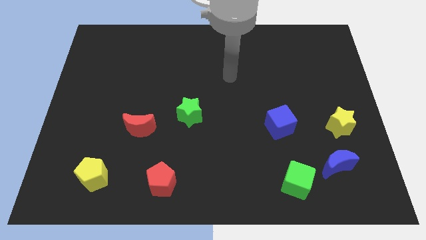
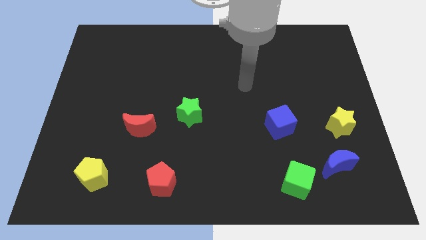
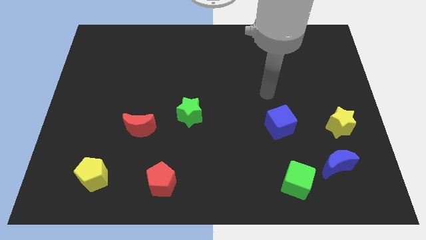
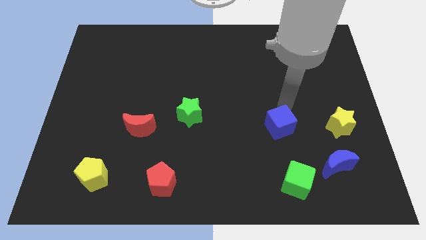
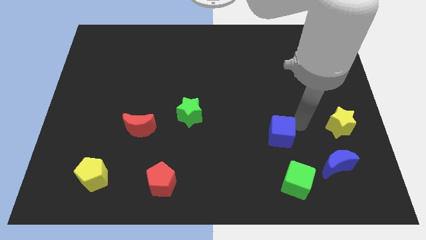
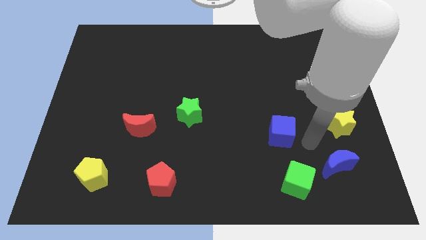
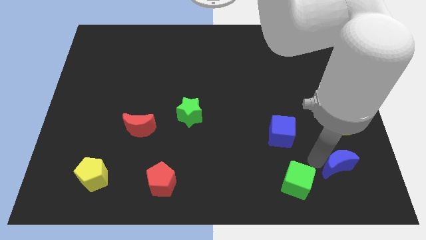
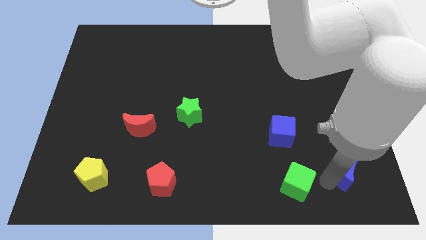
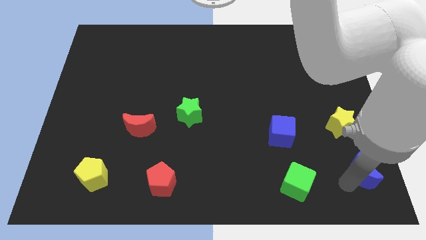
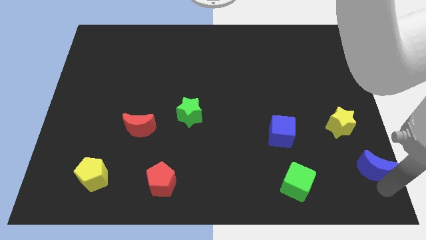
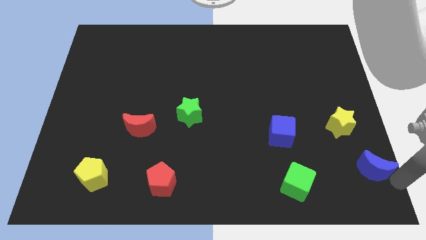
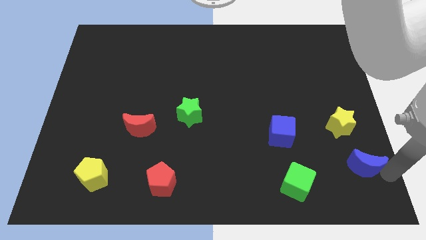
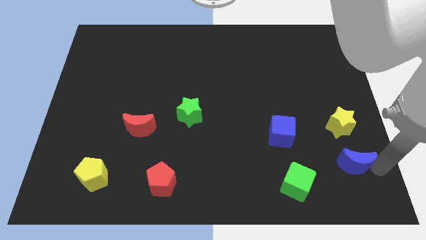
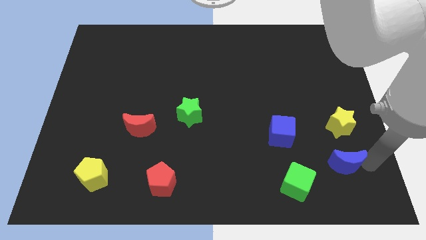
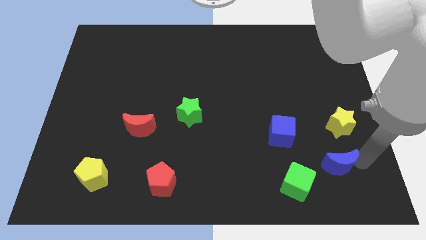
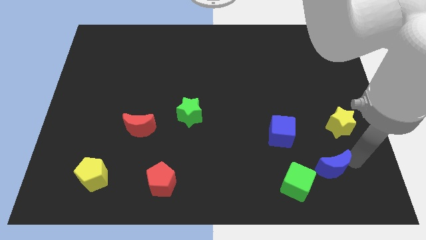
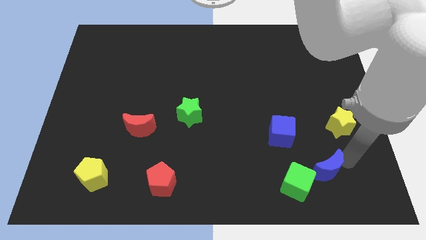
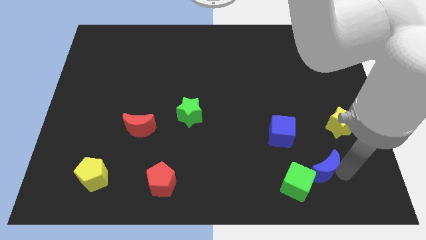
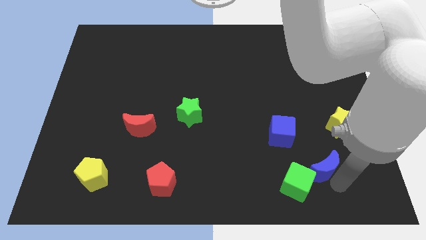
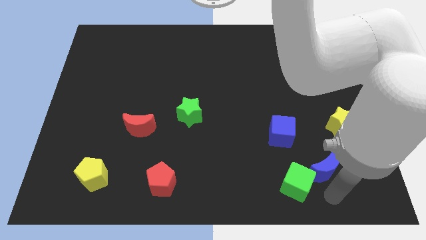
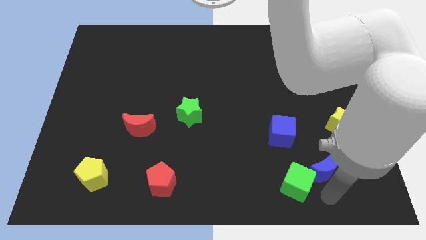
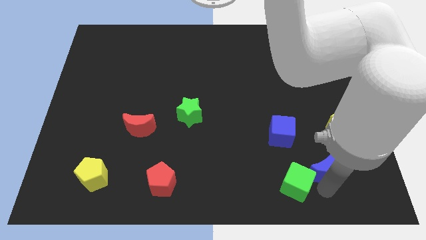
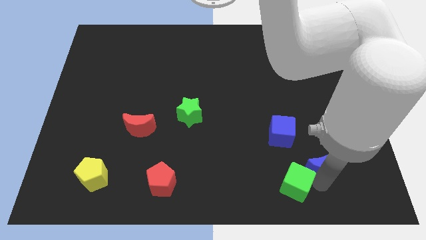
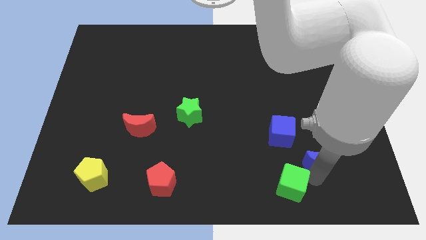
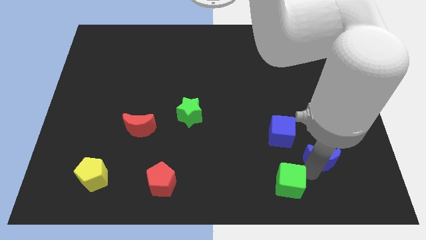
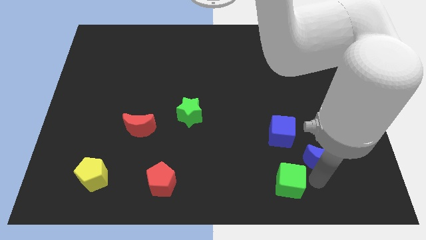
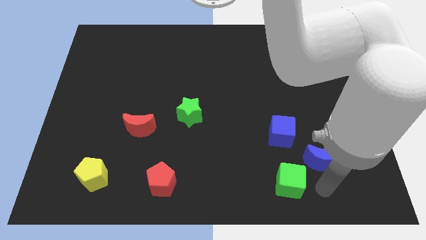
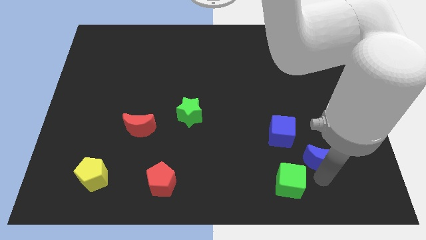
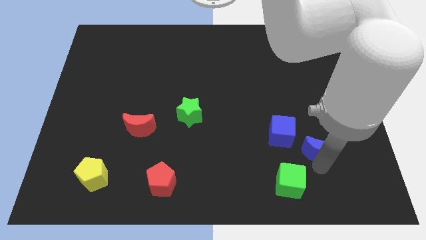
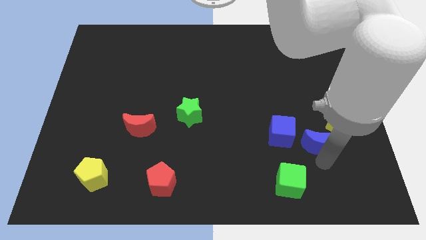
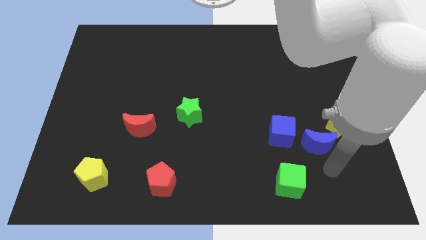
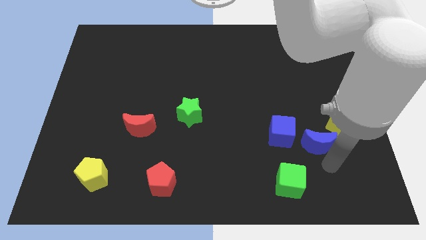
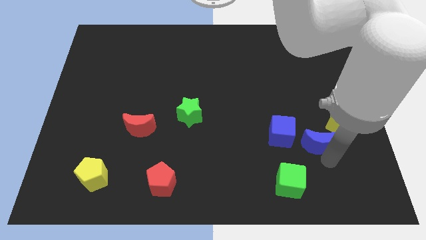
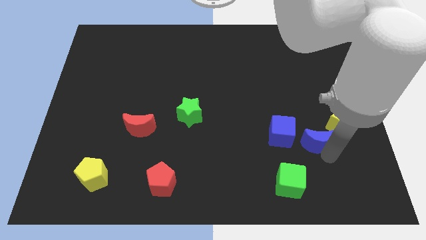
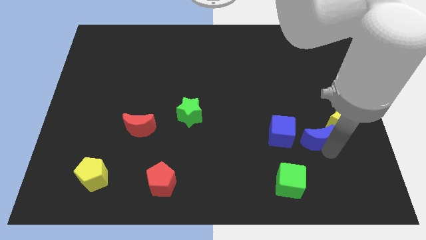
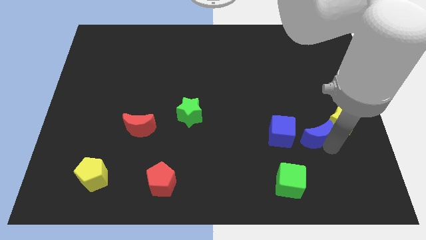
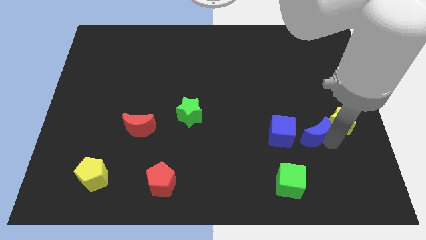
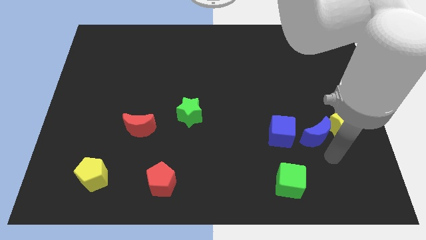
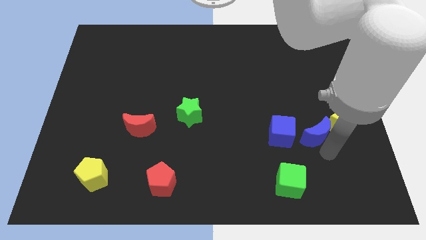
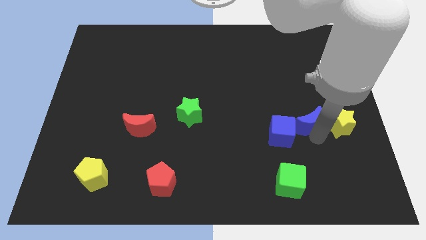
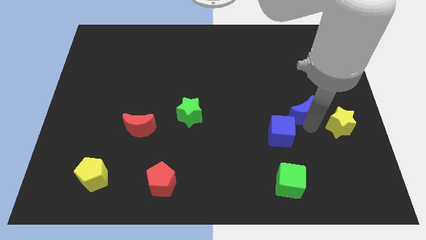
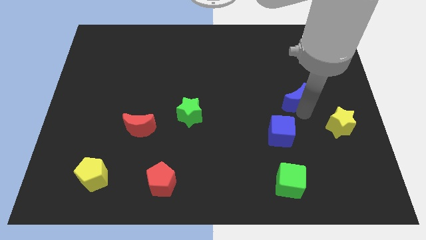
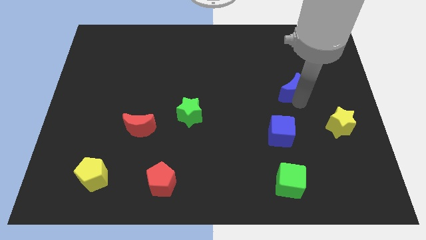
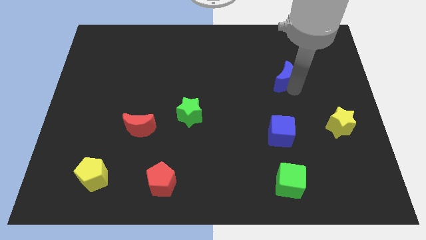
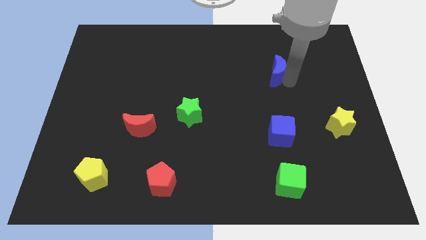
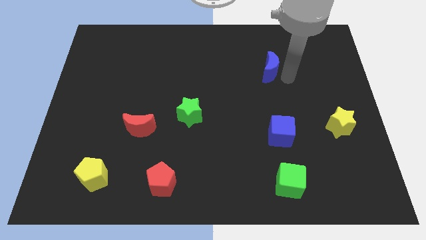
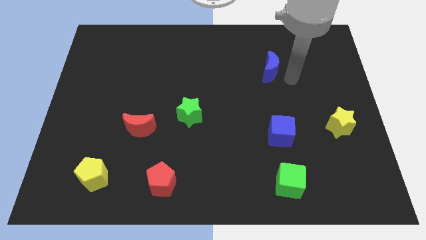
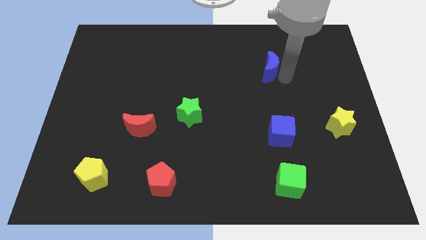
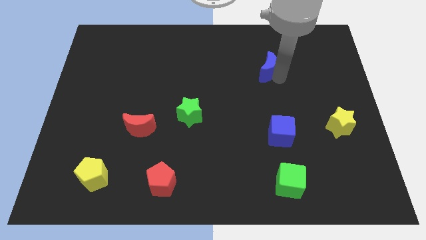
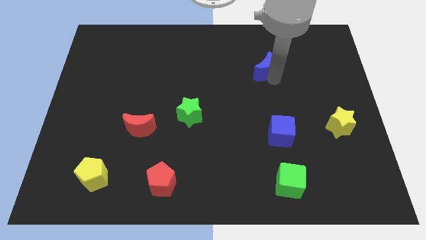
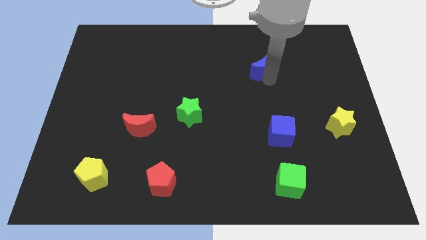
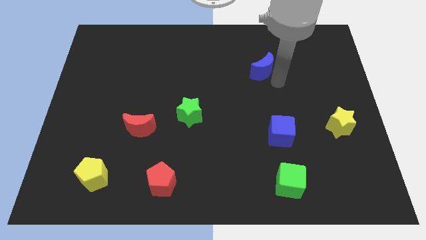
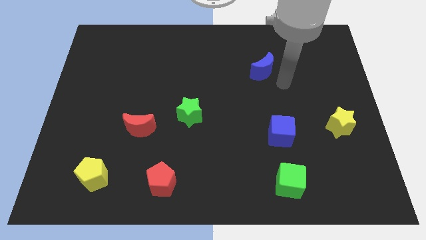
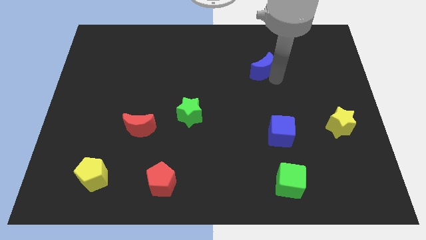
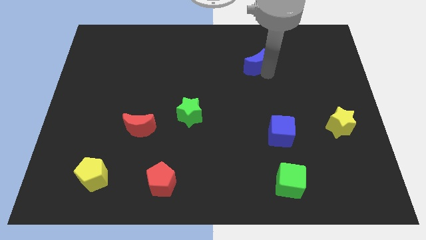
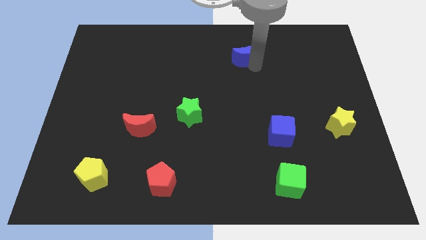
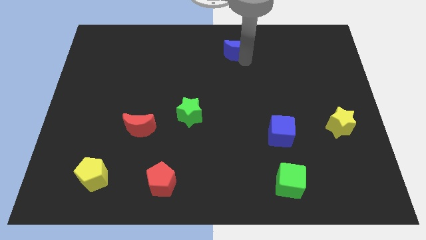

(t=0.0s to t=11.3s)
slide the blue moon to the top side

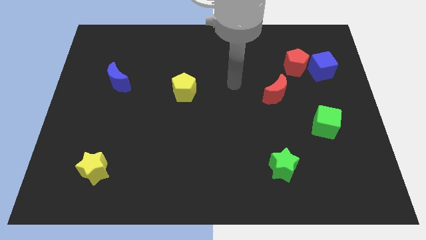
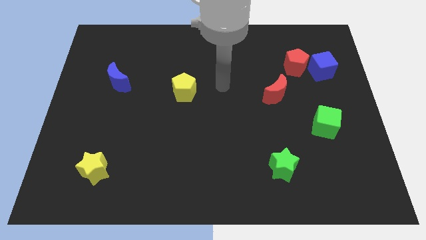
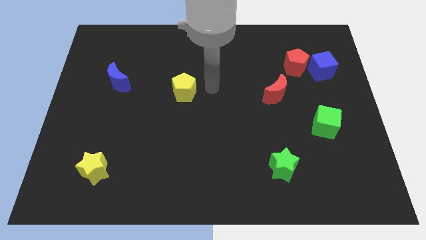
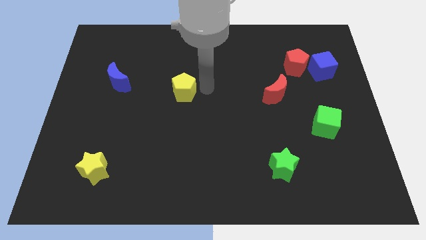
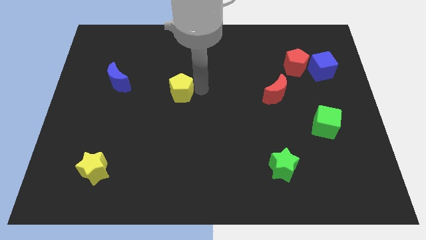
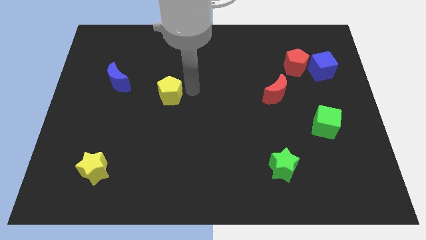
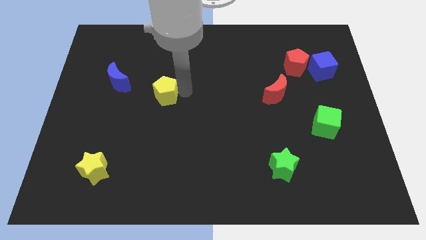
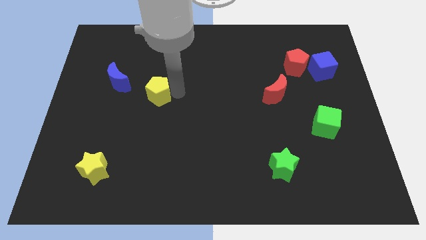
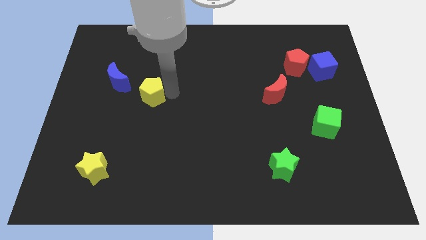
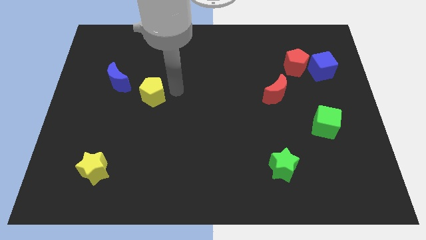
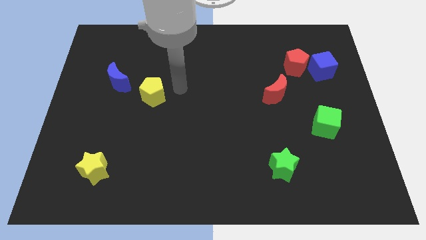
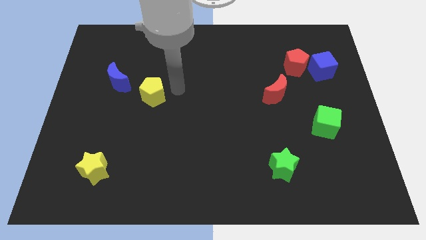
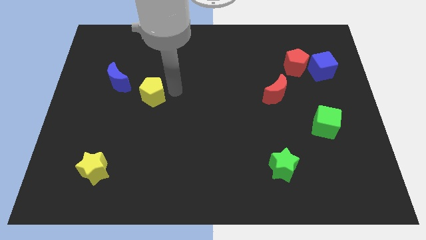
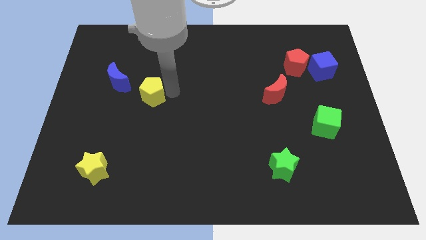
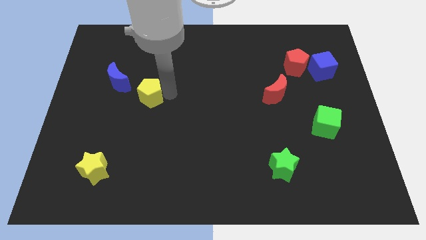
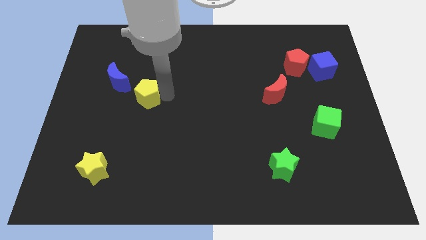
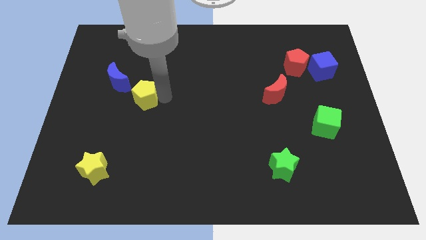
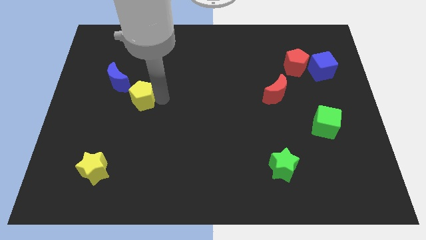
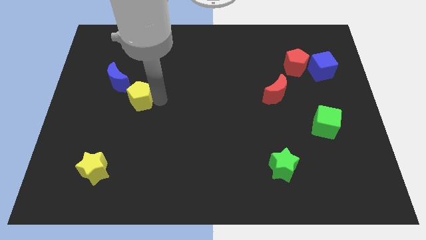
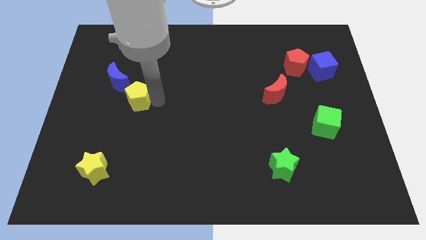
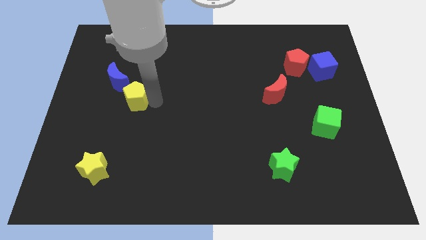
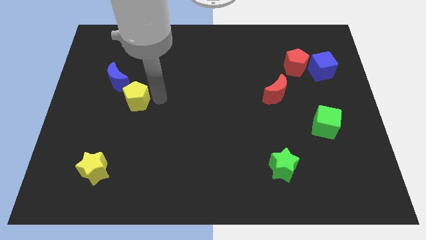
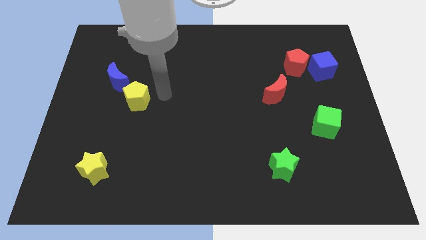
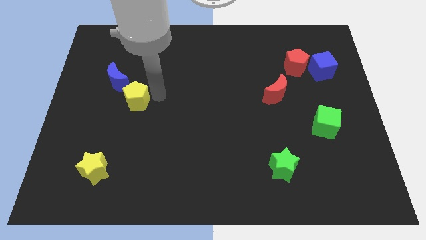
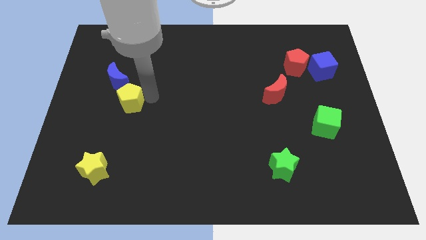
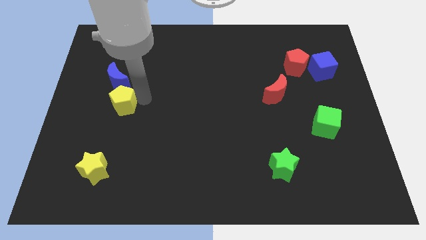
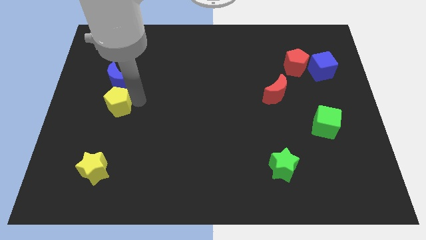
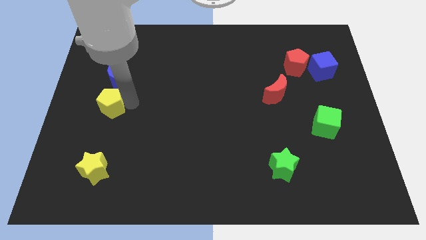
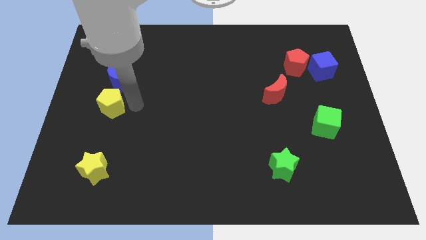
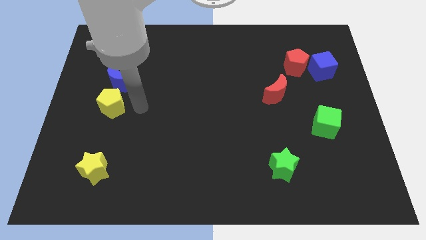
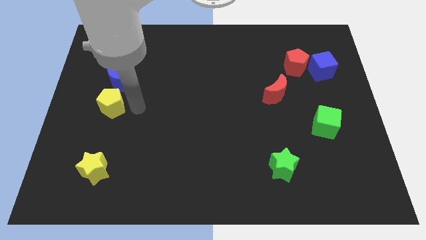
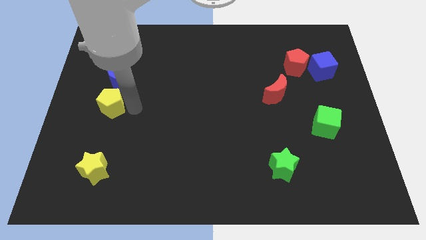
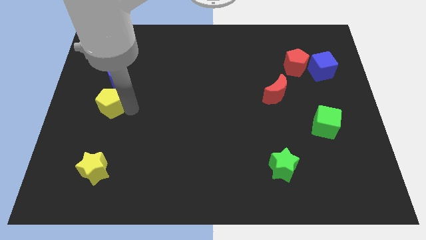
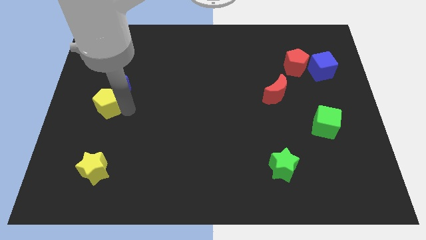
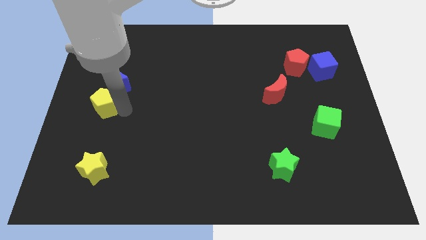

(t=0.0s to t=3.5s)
push the yellow pentagon to the left side of the board
